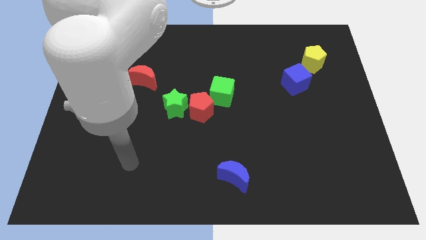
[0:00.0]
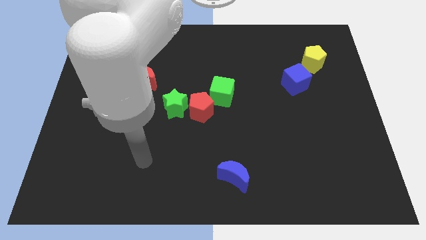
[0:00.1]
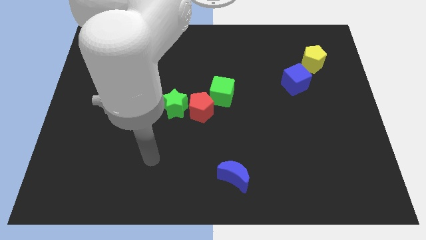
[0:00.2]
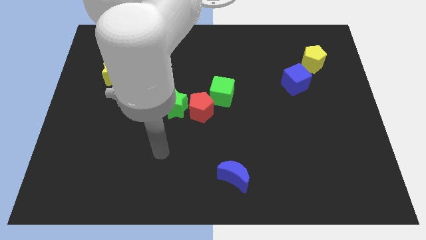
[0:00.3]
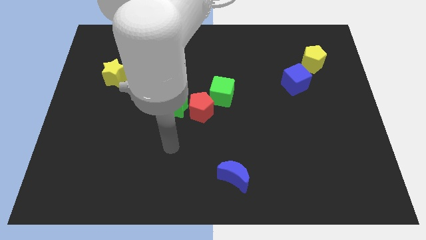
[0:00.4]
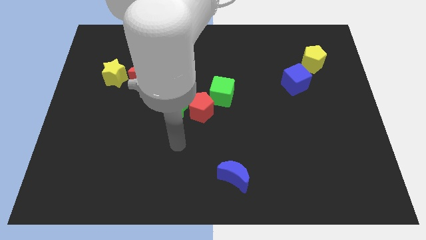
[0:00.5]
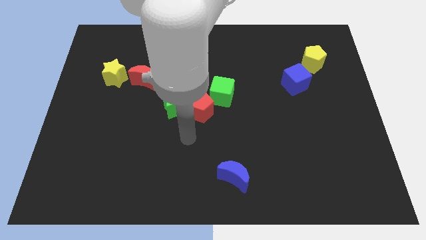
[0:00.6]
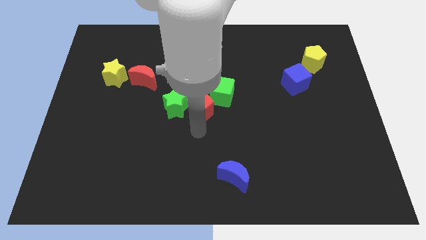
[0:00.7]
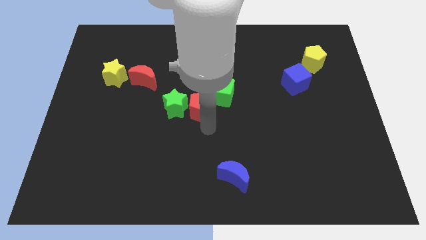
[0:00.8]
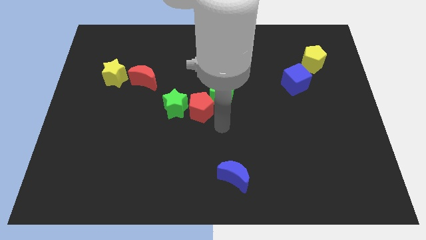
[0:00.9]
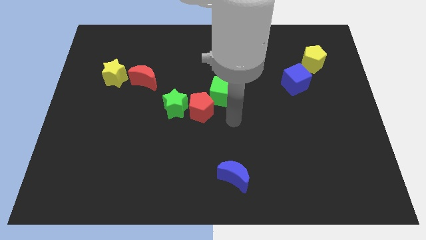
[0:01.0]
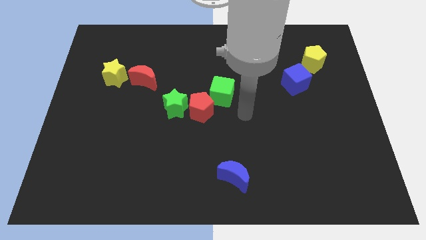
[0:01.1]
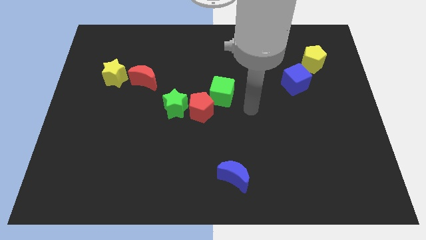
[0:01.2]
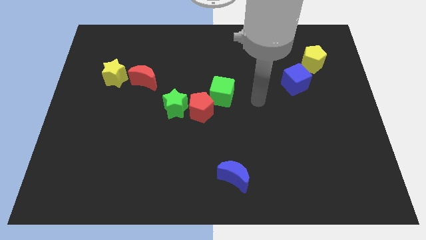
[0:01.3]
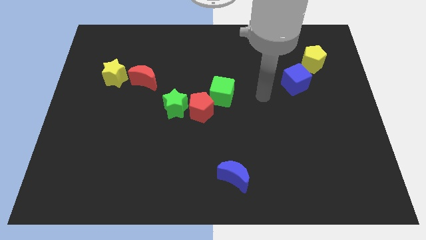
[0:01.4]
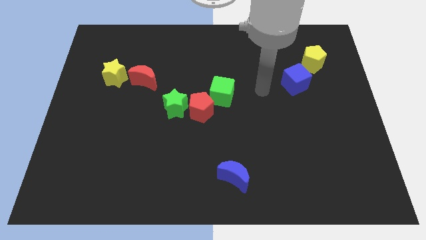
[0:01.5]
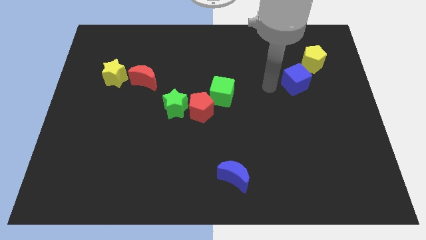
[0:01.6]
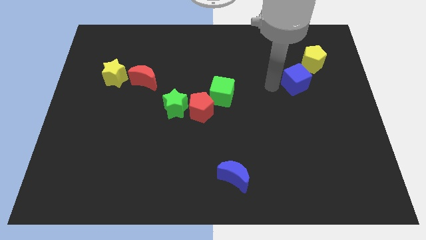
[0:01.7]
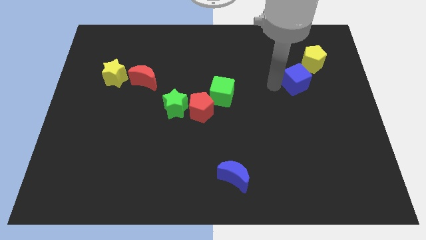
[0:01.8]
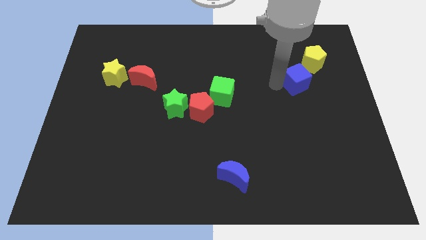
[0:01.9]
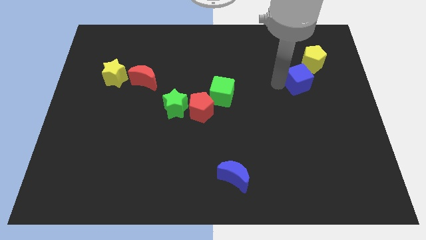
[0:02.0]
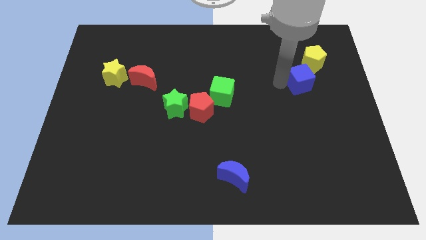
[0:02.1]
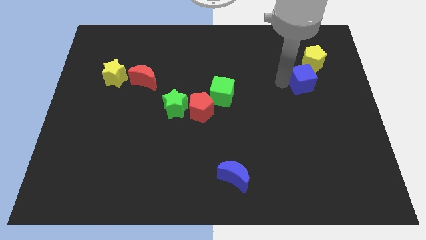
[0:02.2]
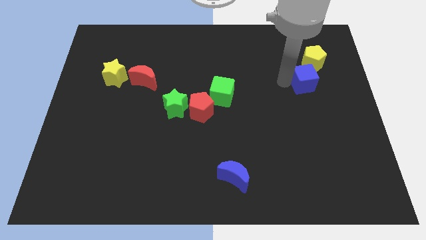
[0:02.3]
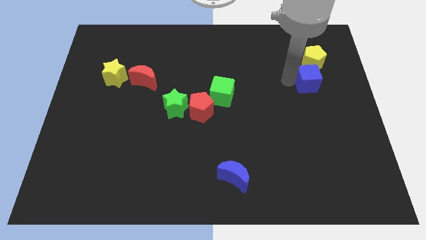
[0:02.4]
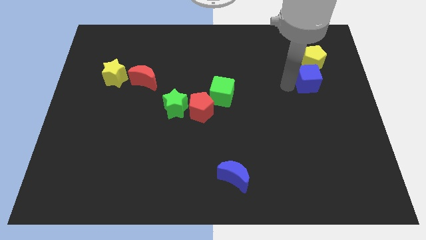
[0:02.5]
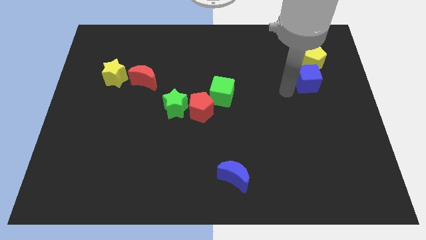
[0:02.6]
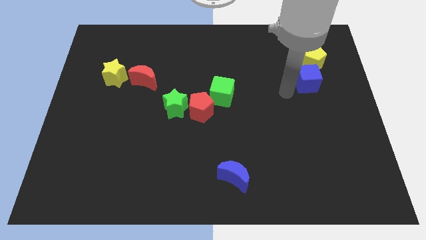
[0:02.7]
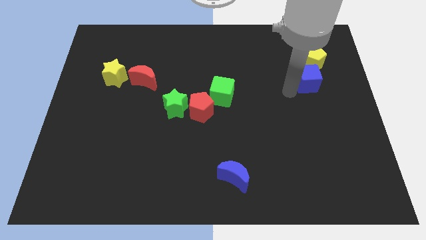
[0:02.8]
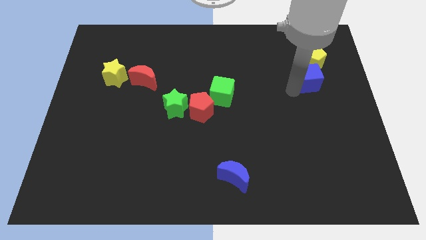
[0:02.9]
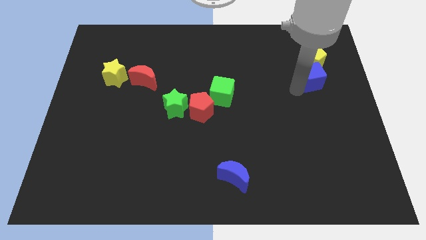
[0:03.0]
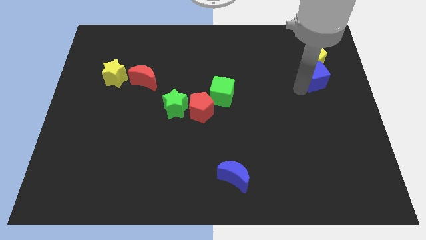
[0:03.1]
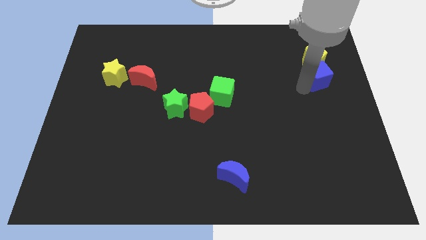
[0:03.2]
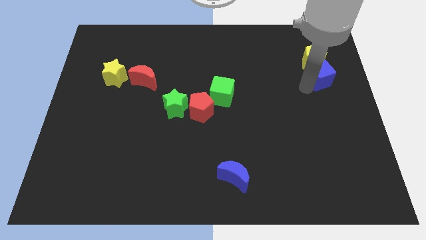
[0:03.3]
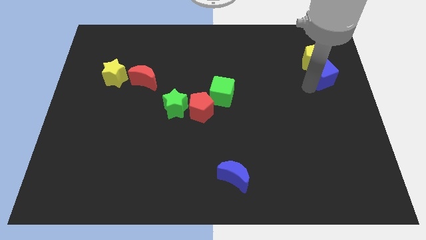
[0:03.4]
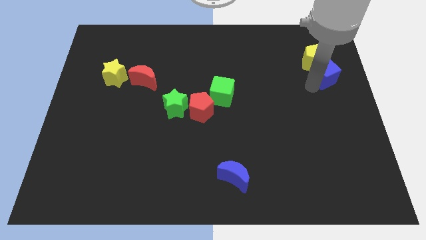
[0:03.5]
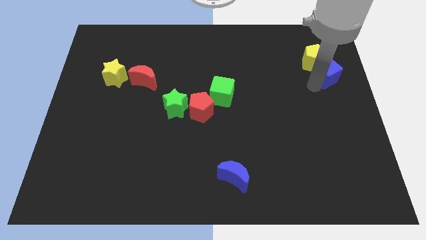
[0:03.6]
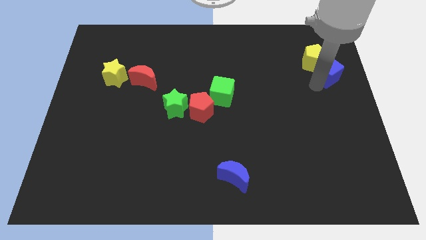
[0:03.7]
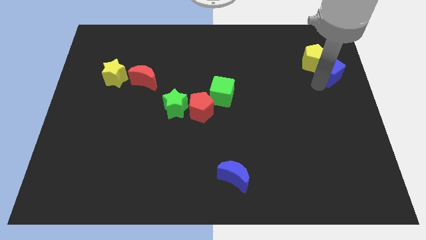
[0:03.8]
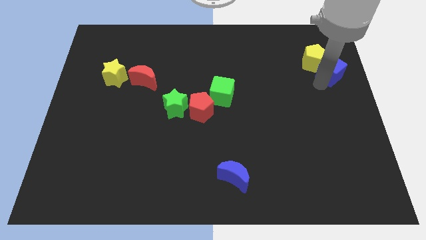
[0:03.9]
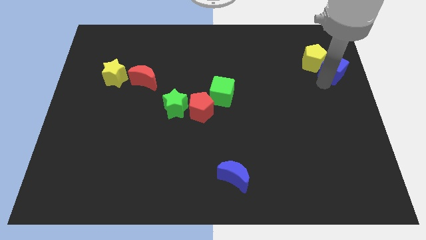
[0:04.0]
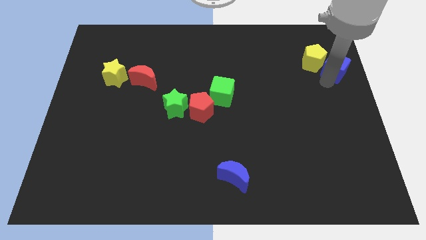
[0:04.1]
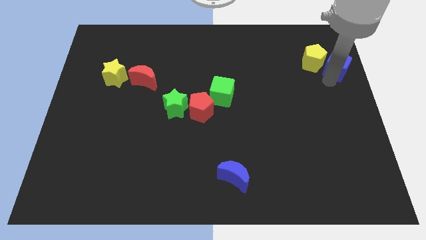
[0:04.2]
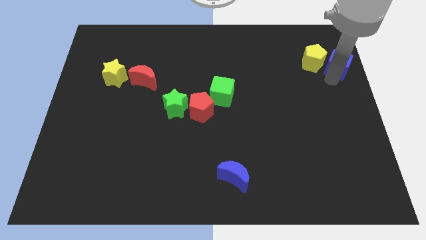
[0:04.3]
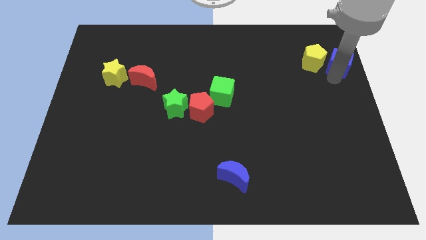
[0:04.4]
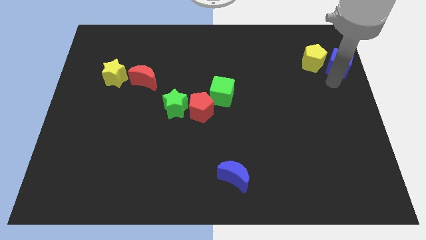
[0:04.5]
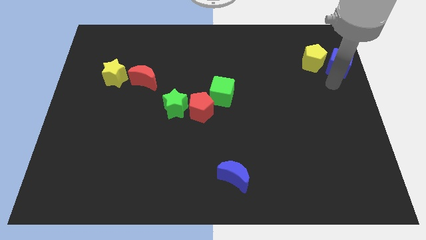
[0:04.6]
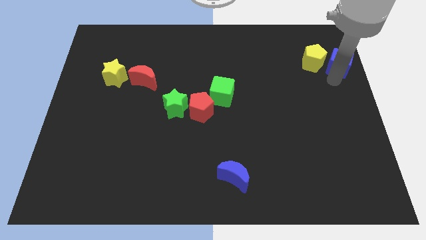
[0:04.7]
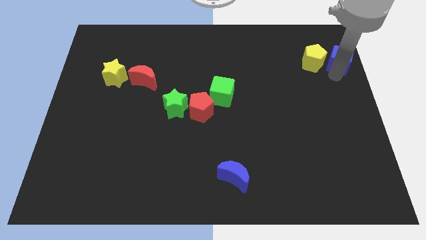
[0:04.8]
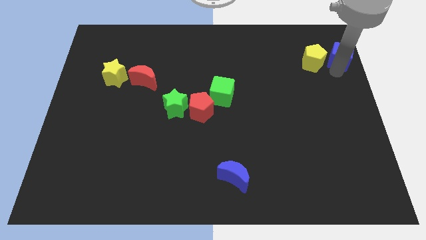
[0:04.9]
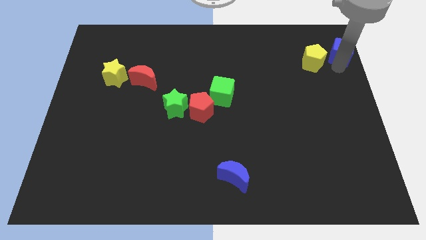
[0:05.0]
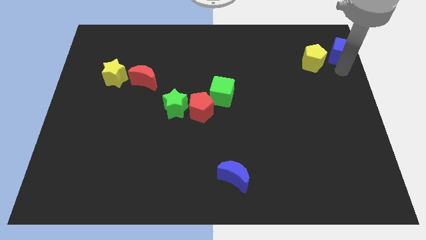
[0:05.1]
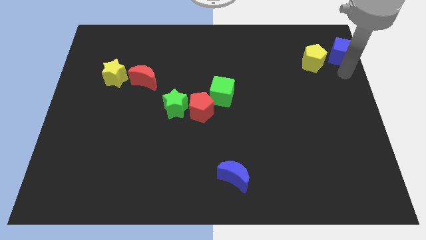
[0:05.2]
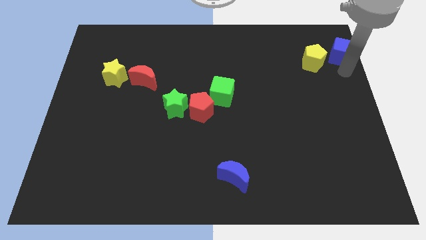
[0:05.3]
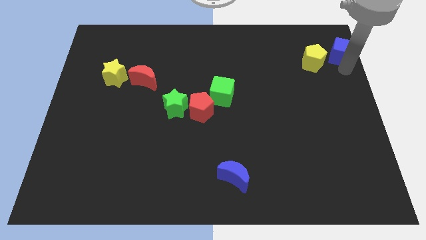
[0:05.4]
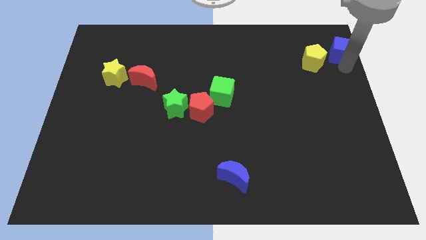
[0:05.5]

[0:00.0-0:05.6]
put the blue cube to the top right corner

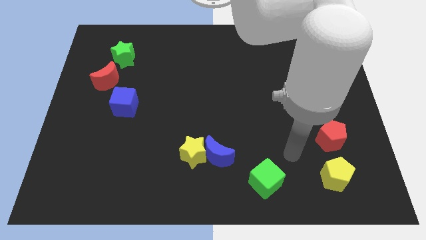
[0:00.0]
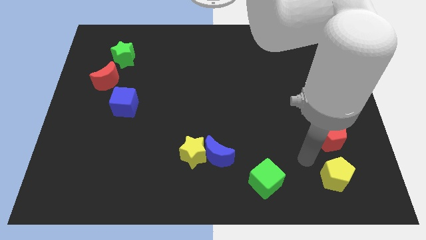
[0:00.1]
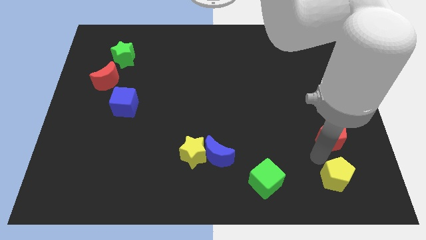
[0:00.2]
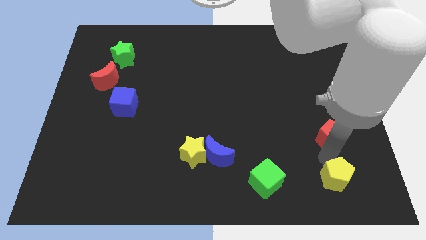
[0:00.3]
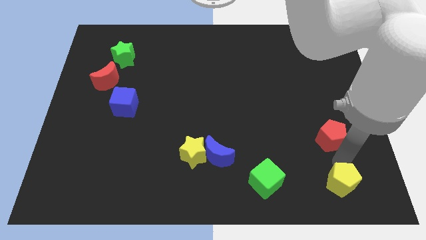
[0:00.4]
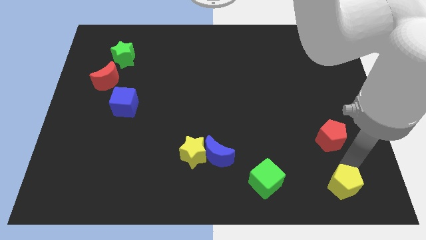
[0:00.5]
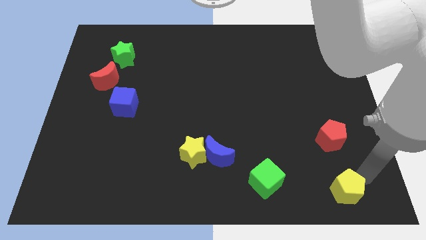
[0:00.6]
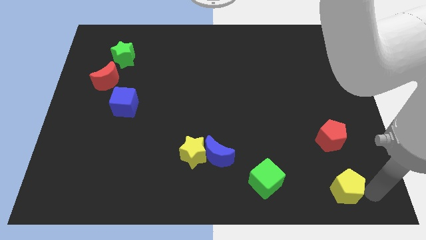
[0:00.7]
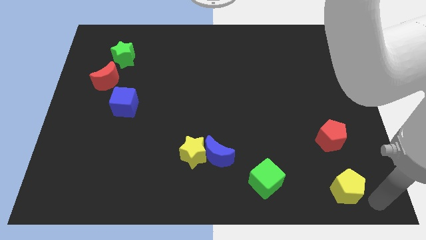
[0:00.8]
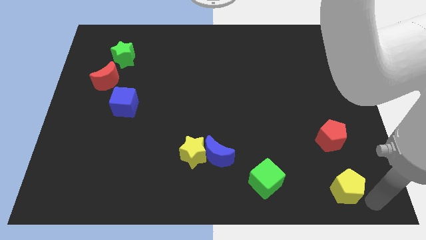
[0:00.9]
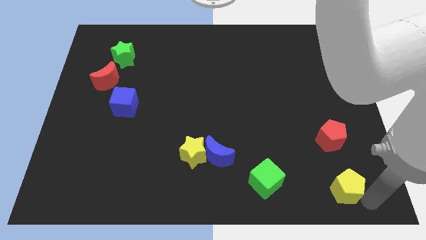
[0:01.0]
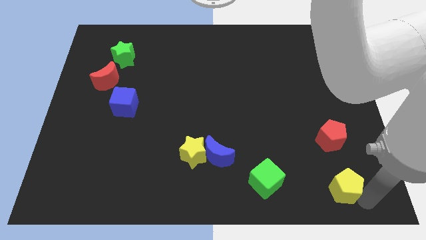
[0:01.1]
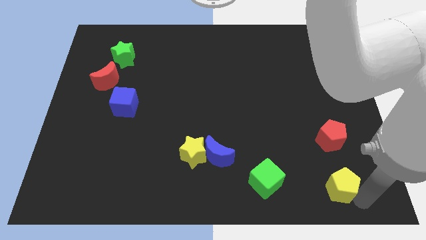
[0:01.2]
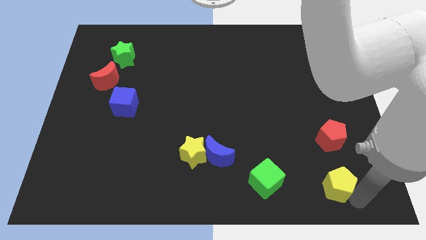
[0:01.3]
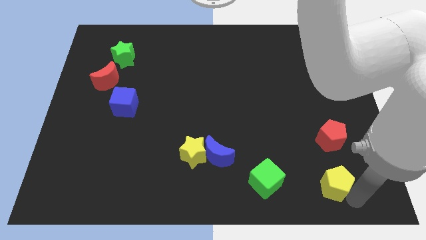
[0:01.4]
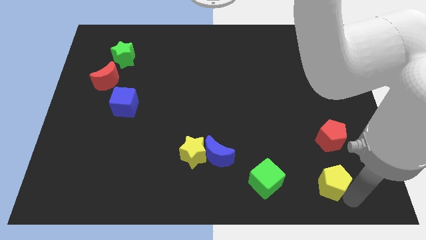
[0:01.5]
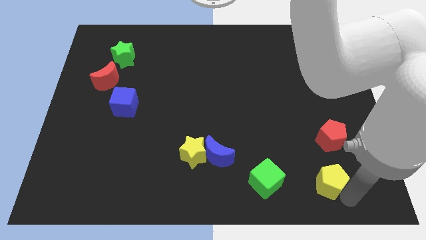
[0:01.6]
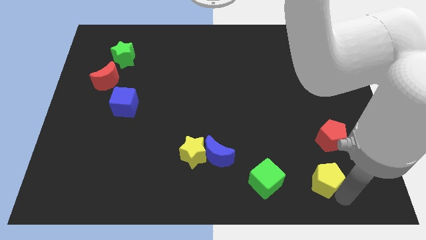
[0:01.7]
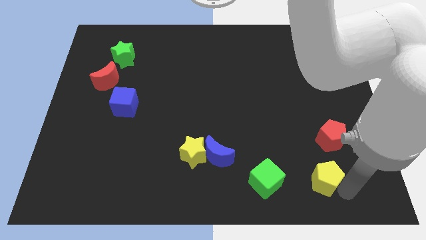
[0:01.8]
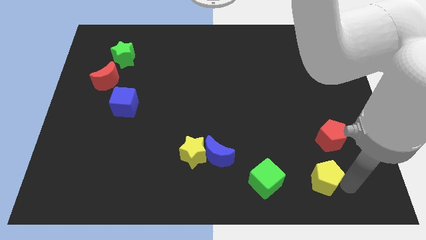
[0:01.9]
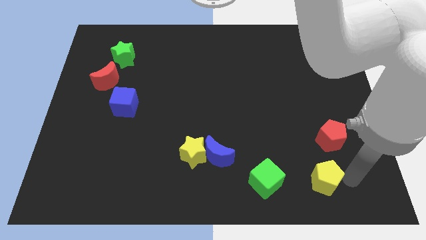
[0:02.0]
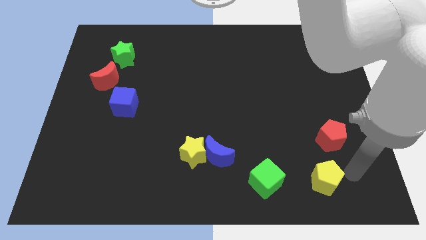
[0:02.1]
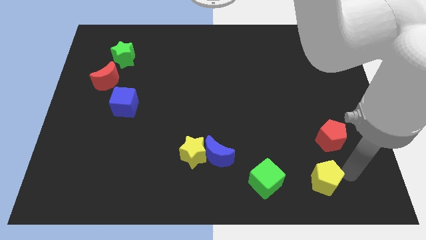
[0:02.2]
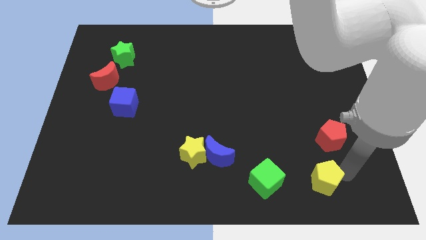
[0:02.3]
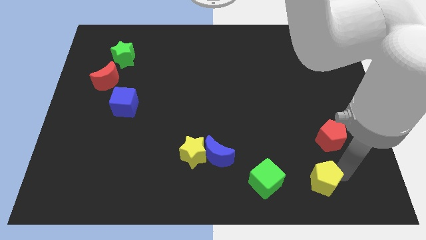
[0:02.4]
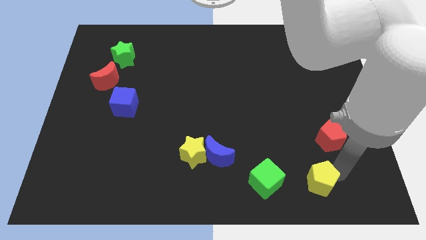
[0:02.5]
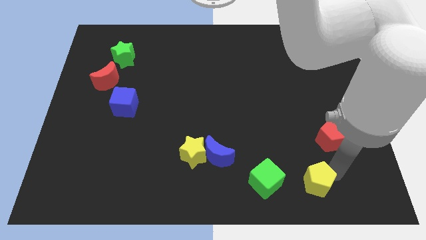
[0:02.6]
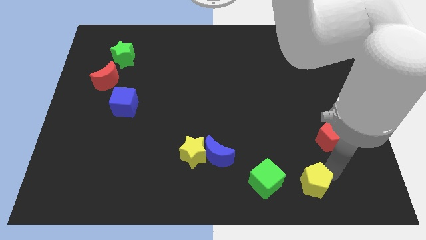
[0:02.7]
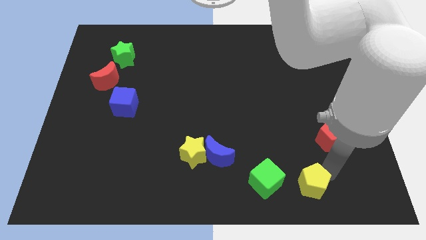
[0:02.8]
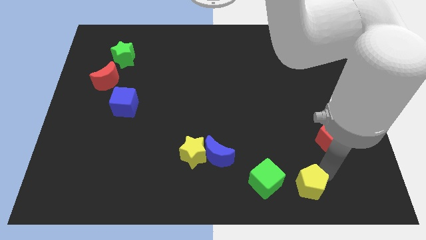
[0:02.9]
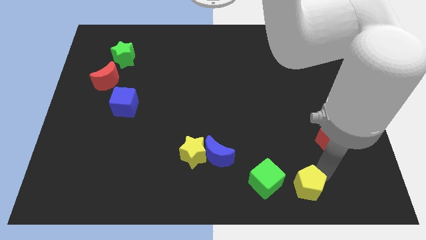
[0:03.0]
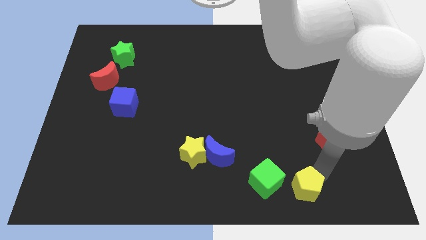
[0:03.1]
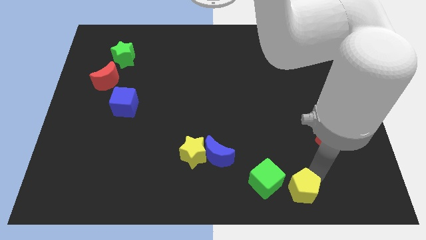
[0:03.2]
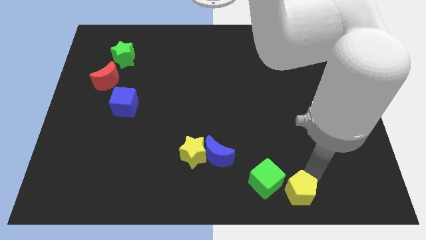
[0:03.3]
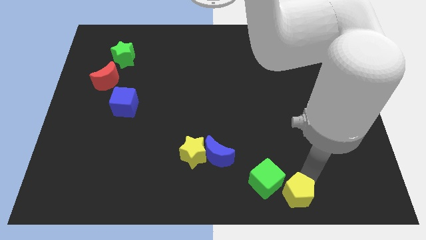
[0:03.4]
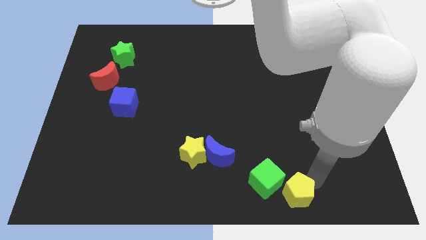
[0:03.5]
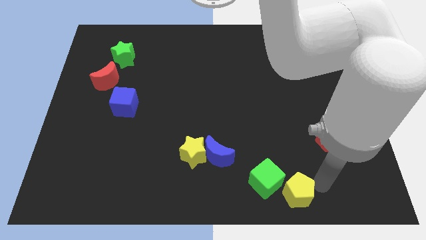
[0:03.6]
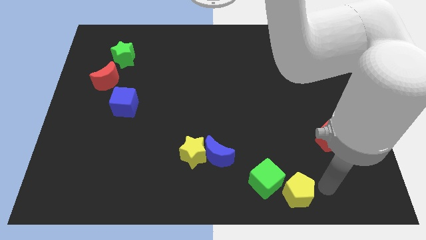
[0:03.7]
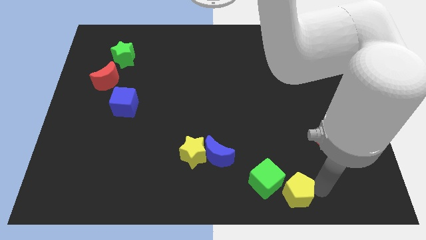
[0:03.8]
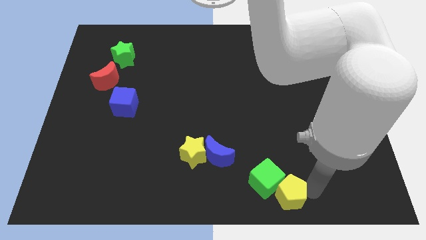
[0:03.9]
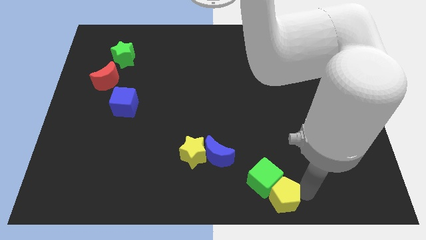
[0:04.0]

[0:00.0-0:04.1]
push the yellow pentagon to the bottom side
